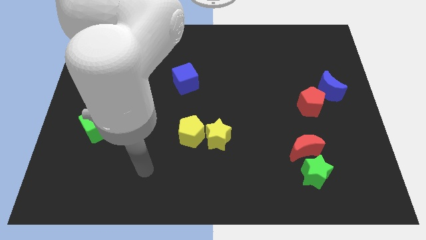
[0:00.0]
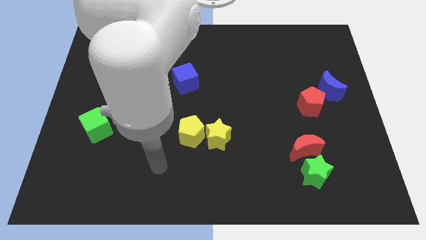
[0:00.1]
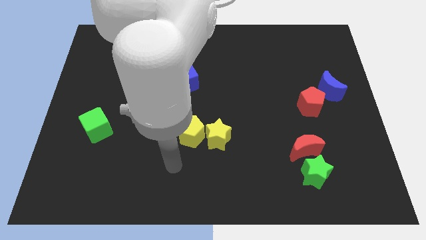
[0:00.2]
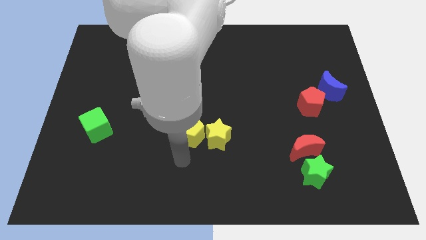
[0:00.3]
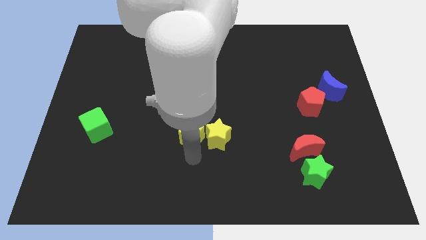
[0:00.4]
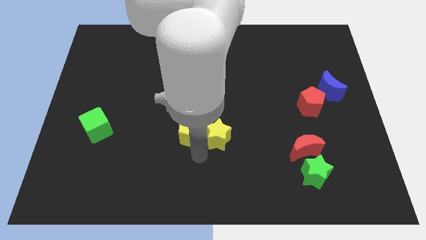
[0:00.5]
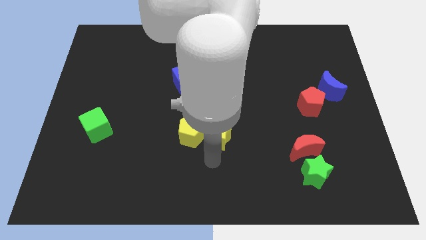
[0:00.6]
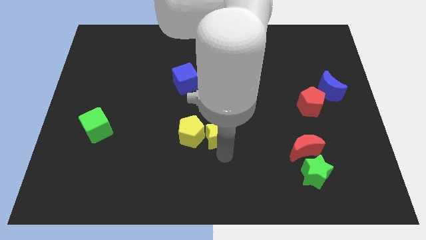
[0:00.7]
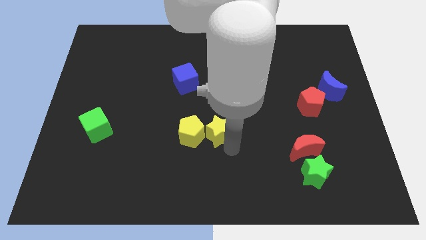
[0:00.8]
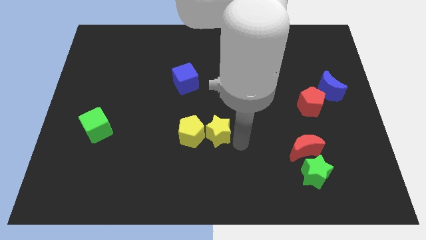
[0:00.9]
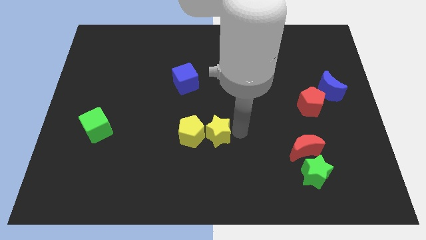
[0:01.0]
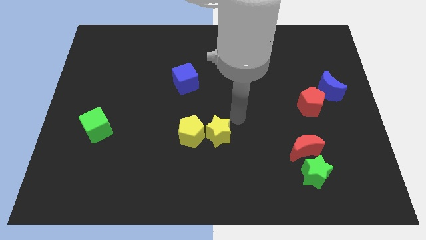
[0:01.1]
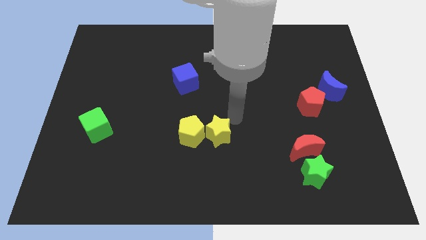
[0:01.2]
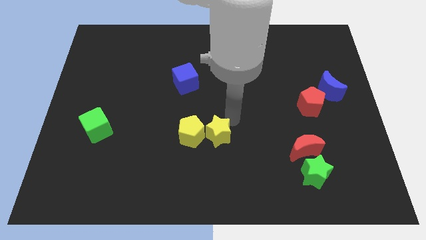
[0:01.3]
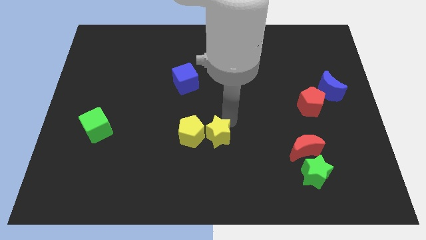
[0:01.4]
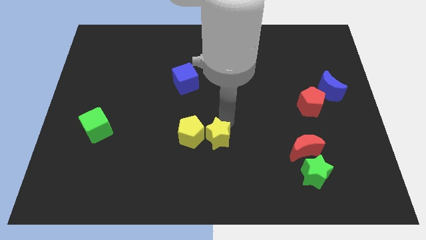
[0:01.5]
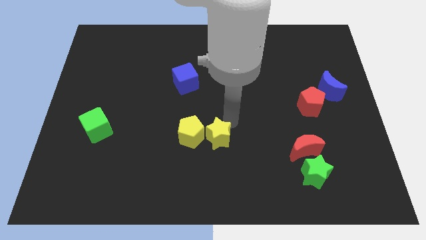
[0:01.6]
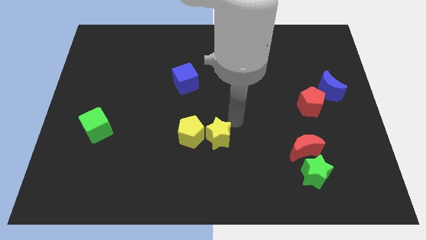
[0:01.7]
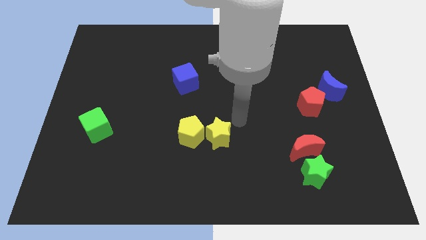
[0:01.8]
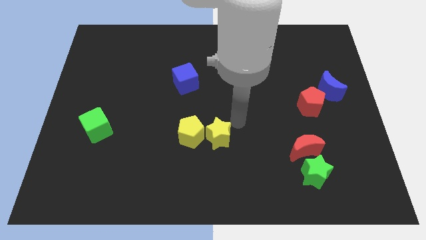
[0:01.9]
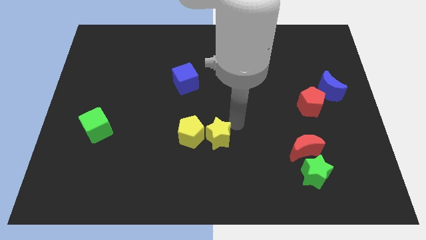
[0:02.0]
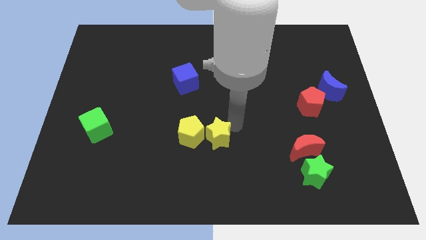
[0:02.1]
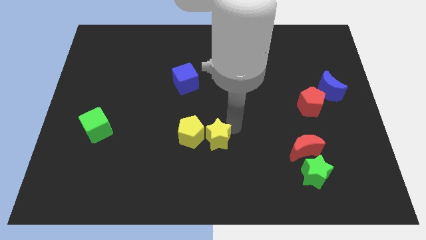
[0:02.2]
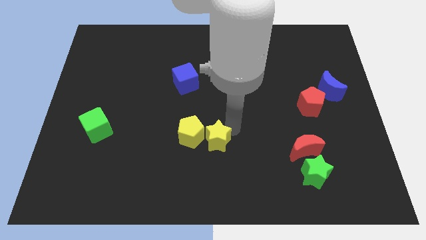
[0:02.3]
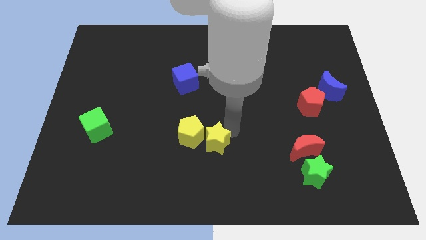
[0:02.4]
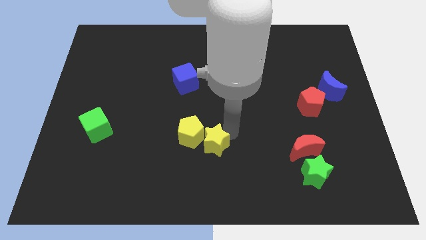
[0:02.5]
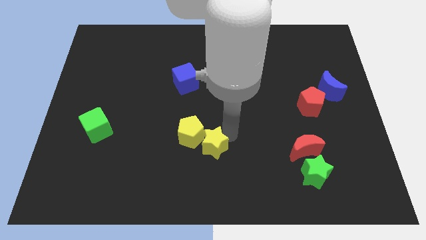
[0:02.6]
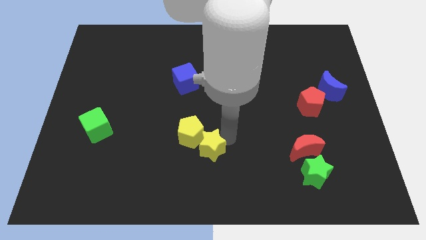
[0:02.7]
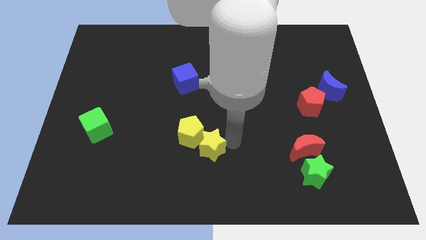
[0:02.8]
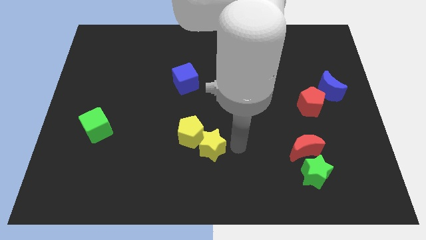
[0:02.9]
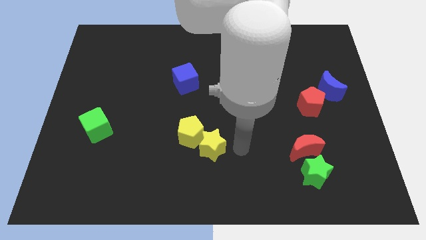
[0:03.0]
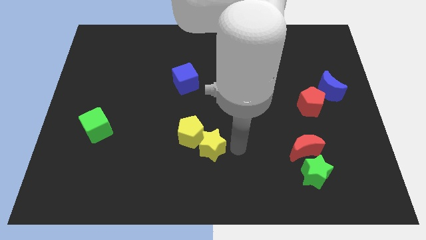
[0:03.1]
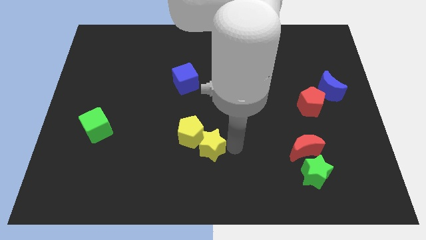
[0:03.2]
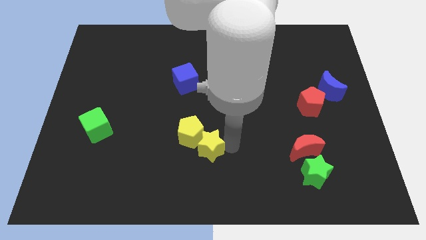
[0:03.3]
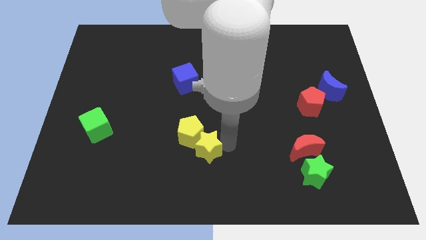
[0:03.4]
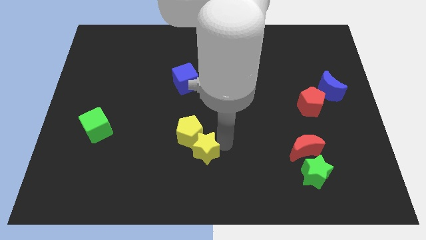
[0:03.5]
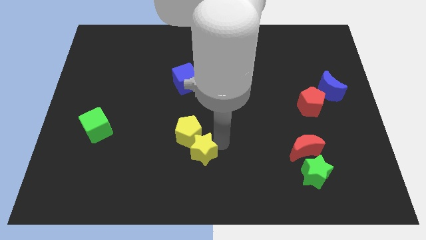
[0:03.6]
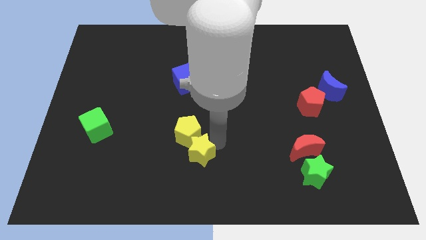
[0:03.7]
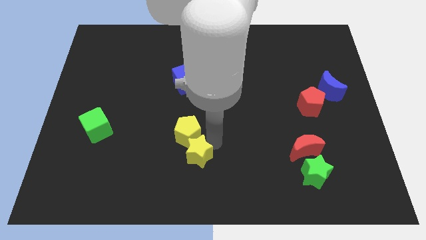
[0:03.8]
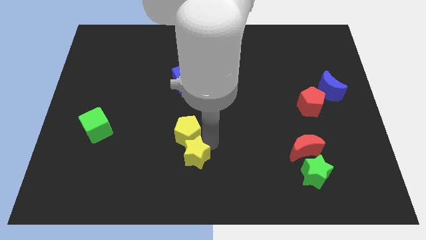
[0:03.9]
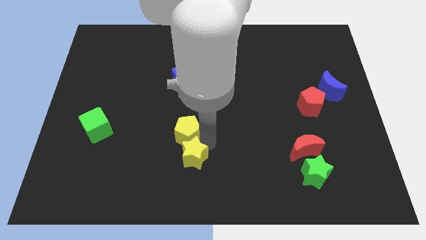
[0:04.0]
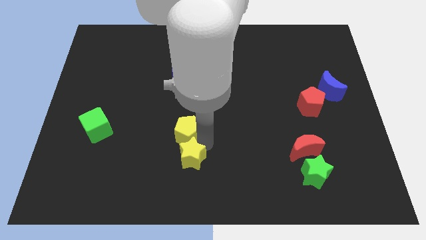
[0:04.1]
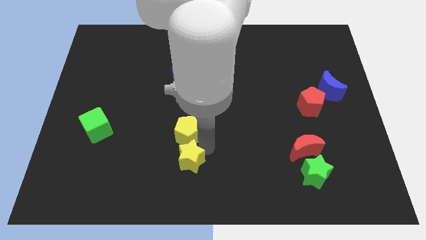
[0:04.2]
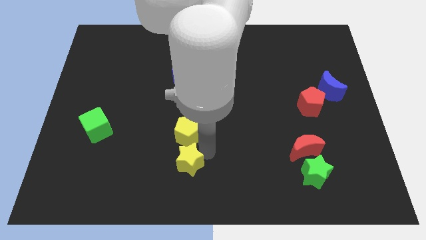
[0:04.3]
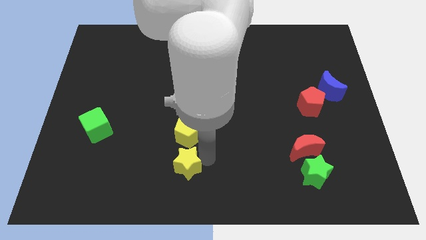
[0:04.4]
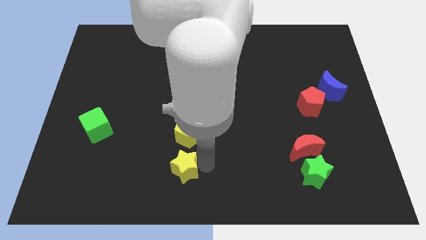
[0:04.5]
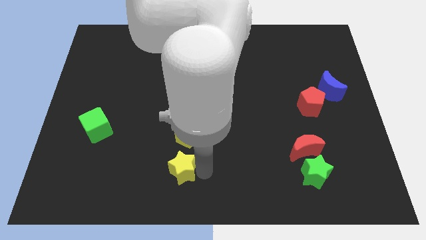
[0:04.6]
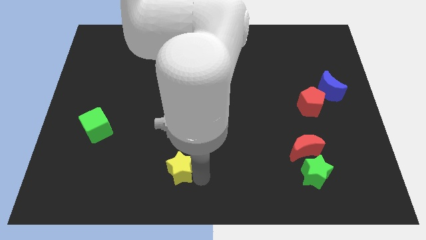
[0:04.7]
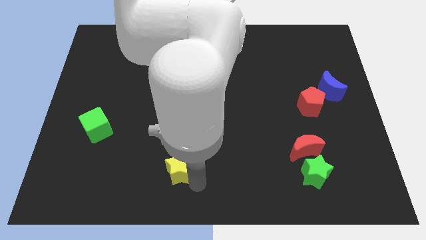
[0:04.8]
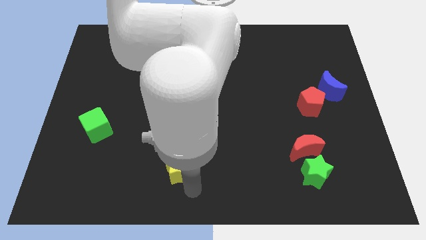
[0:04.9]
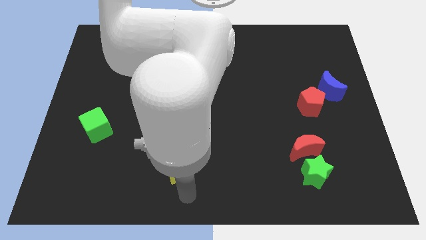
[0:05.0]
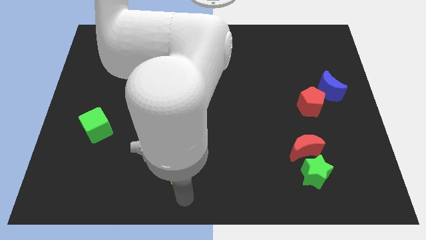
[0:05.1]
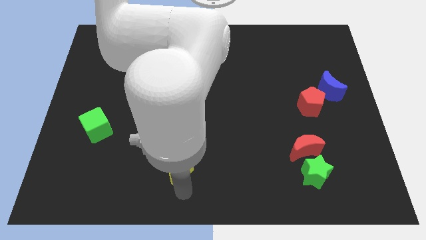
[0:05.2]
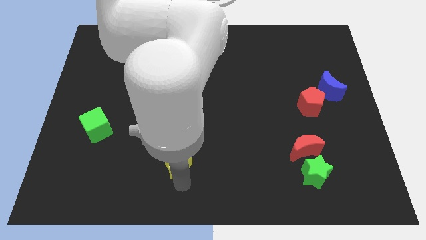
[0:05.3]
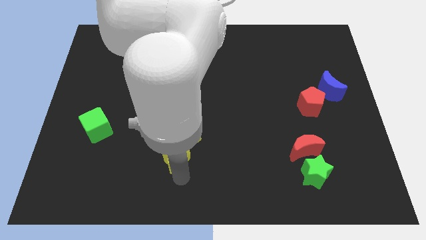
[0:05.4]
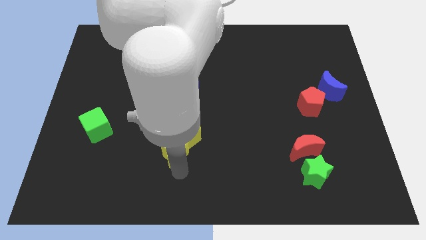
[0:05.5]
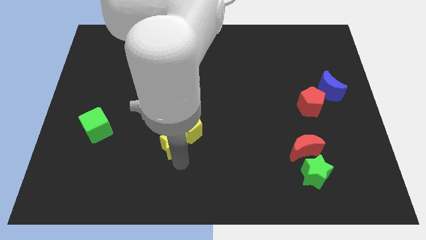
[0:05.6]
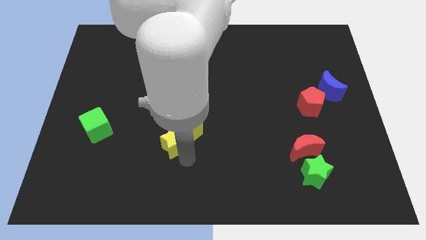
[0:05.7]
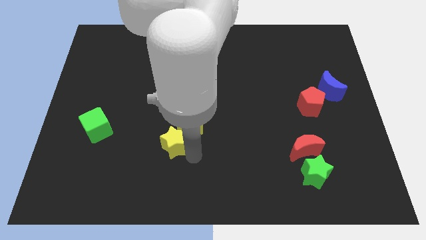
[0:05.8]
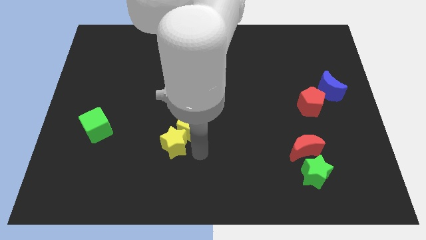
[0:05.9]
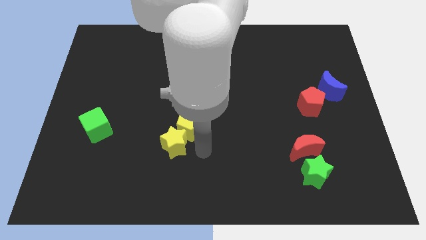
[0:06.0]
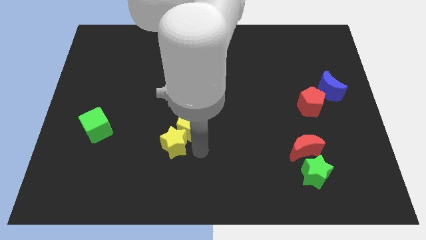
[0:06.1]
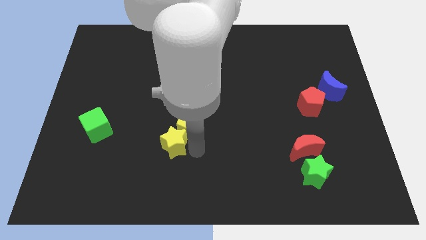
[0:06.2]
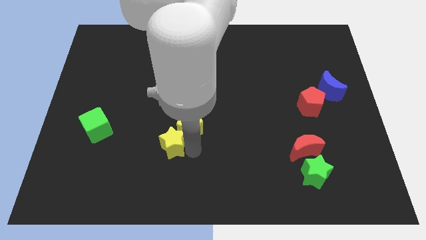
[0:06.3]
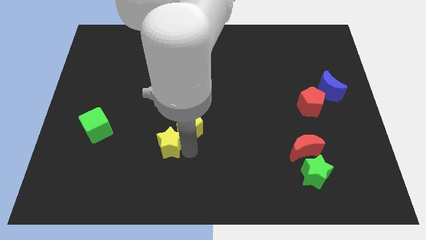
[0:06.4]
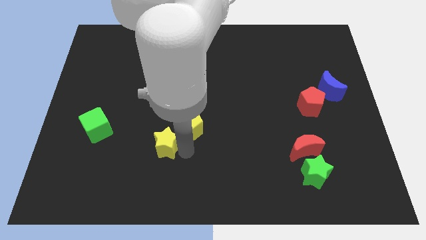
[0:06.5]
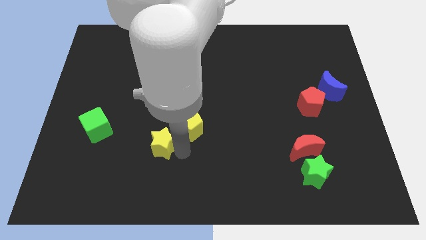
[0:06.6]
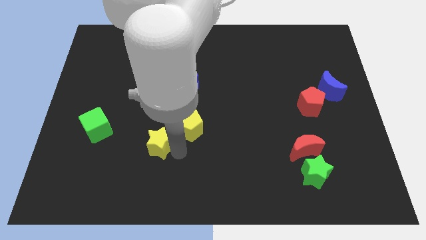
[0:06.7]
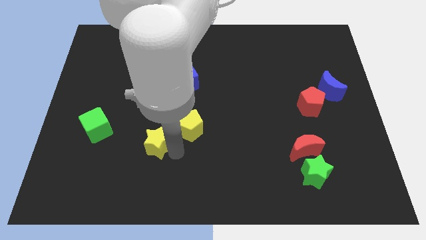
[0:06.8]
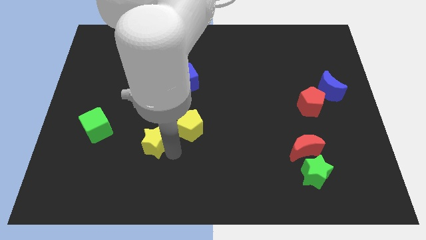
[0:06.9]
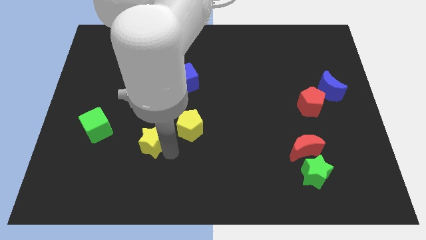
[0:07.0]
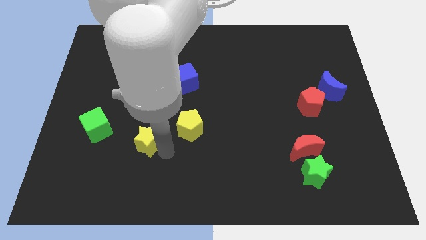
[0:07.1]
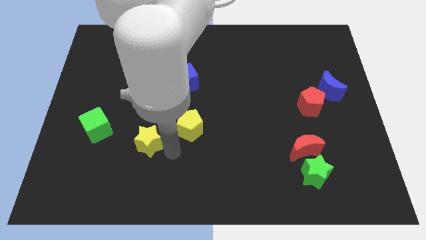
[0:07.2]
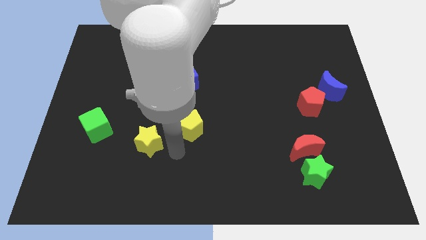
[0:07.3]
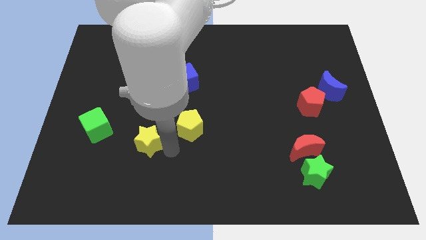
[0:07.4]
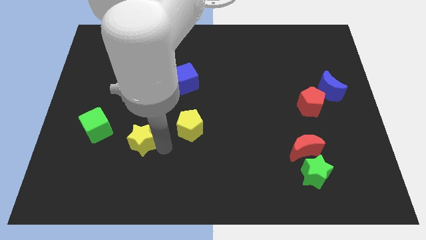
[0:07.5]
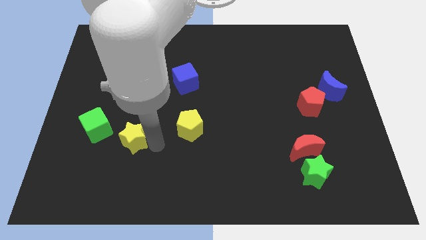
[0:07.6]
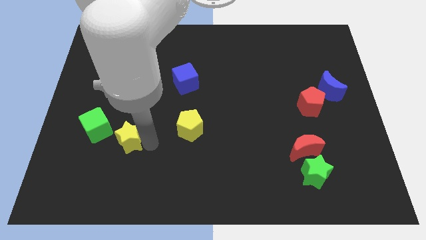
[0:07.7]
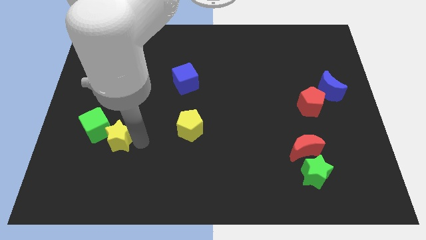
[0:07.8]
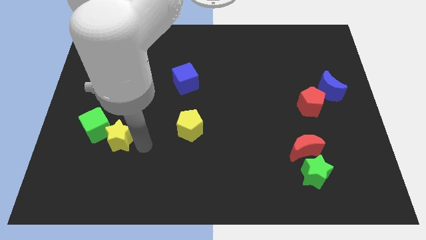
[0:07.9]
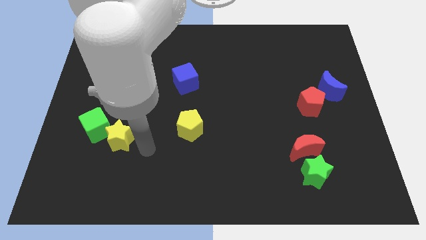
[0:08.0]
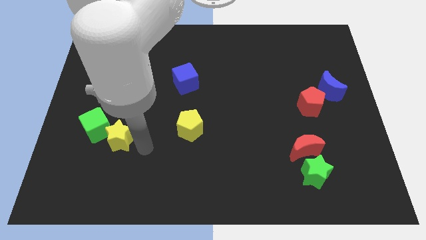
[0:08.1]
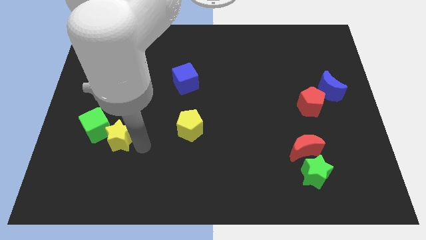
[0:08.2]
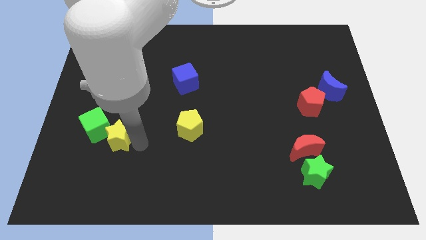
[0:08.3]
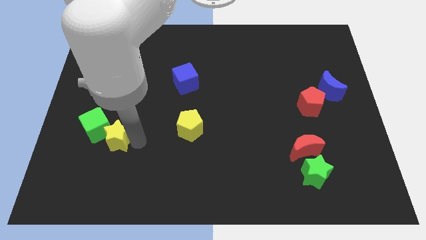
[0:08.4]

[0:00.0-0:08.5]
slide the yellow star close to the green cube
